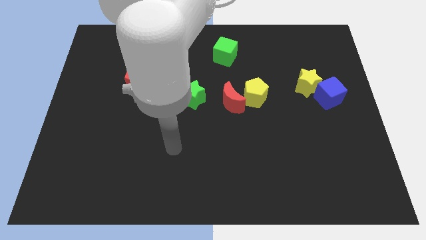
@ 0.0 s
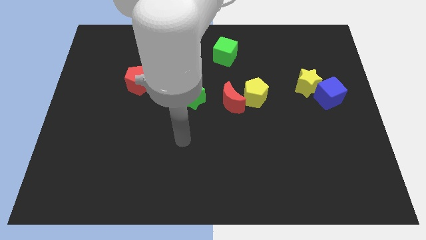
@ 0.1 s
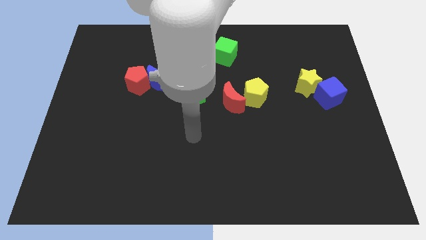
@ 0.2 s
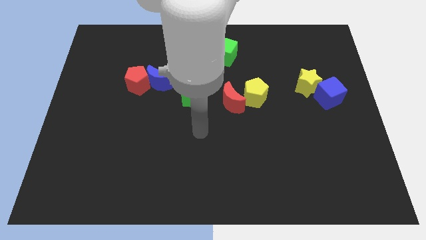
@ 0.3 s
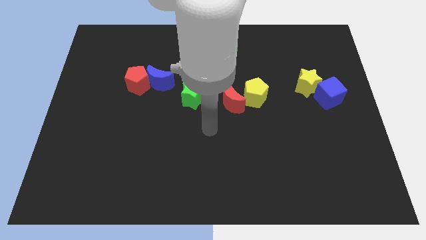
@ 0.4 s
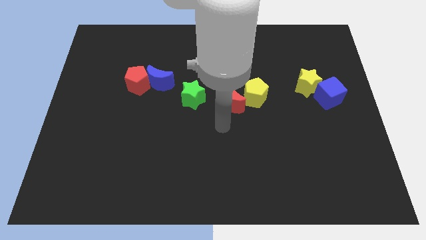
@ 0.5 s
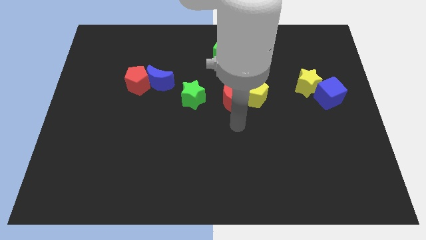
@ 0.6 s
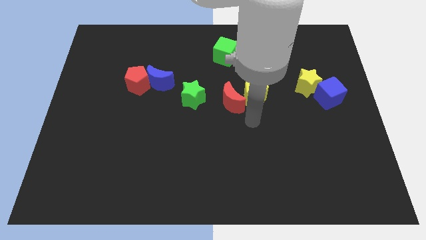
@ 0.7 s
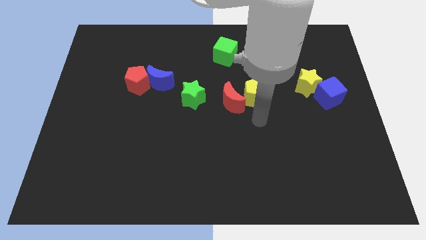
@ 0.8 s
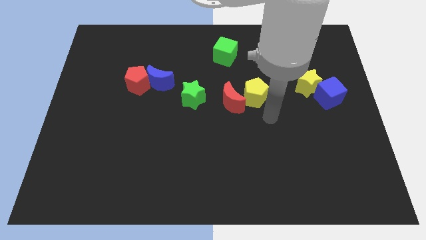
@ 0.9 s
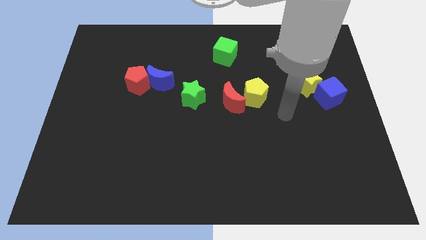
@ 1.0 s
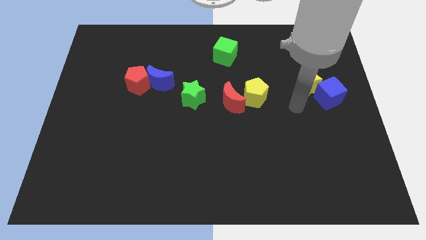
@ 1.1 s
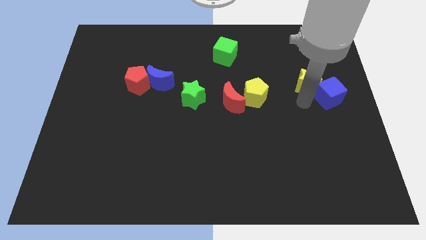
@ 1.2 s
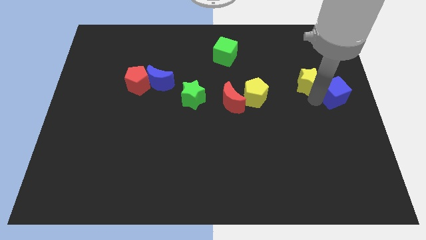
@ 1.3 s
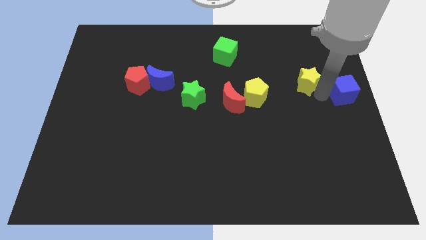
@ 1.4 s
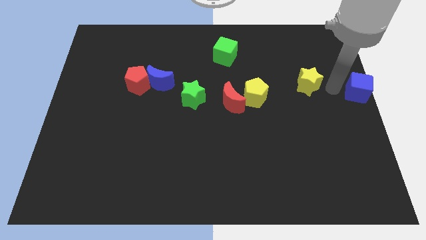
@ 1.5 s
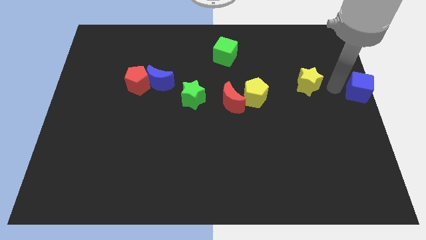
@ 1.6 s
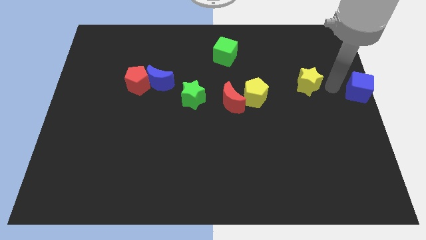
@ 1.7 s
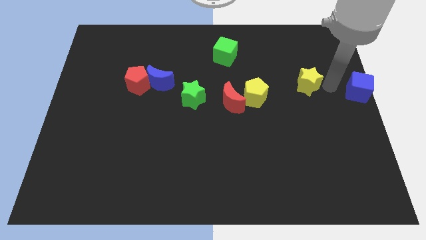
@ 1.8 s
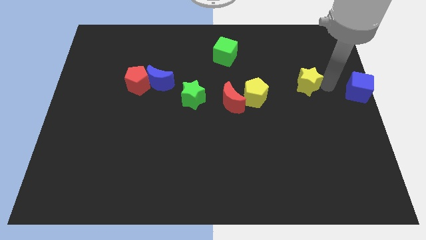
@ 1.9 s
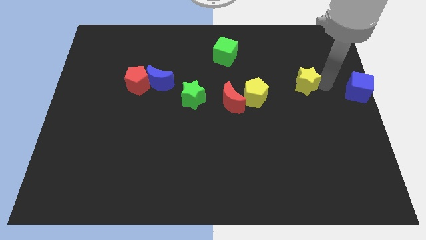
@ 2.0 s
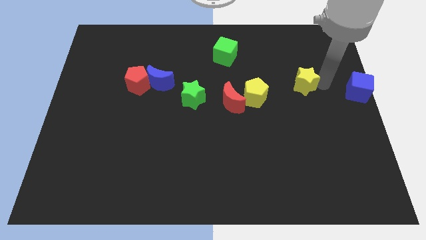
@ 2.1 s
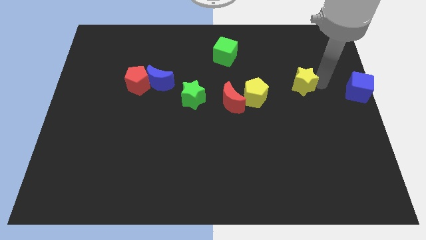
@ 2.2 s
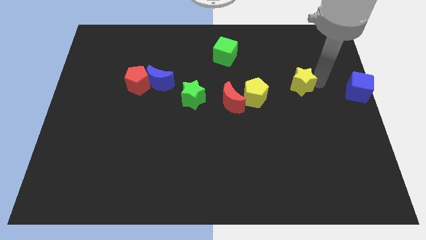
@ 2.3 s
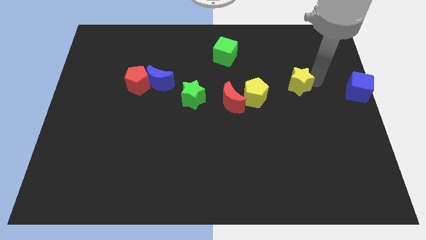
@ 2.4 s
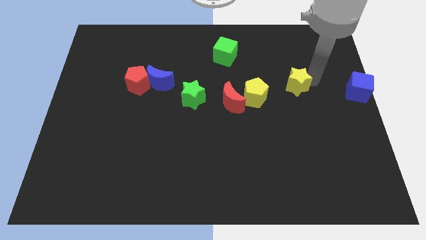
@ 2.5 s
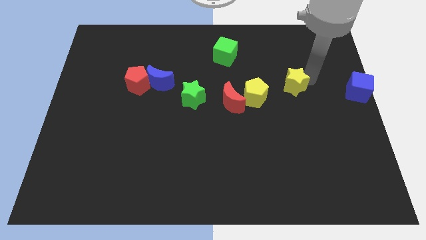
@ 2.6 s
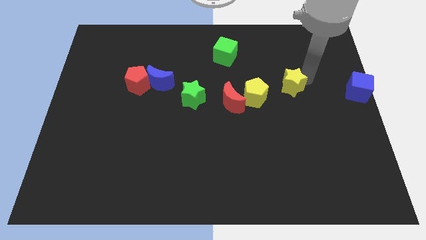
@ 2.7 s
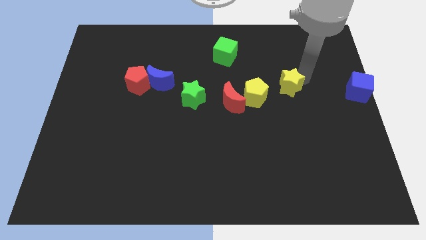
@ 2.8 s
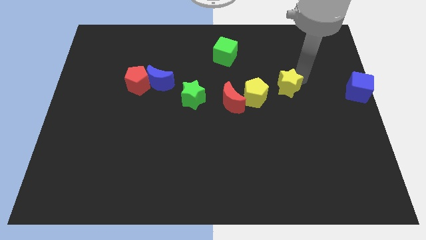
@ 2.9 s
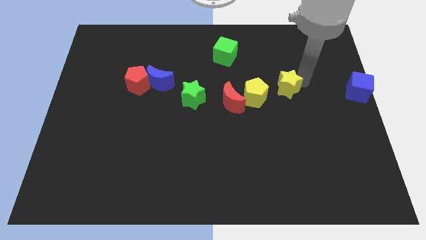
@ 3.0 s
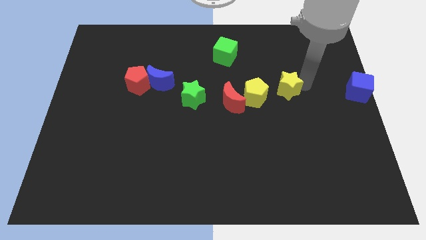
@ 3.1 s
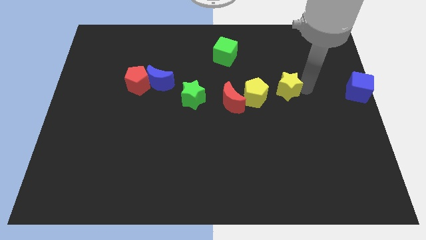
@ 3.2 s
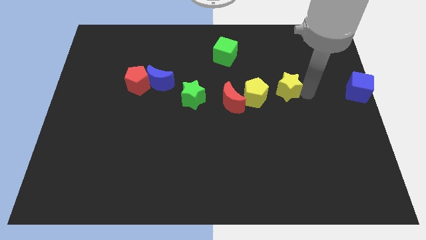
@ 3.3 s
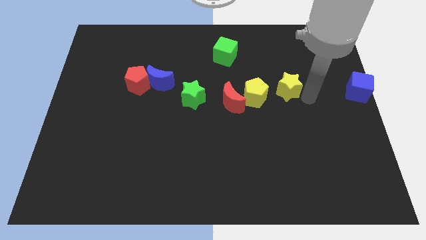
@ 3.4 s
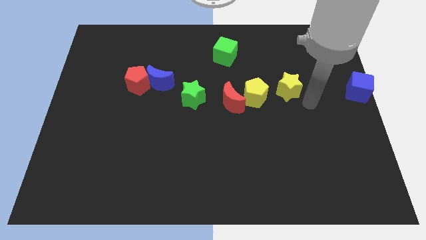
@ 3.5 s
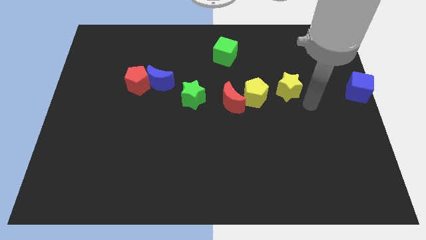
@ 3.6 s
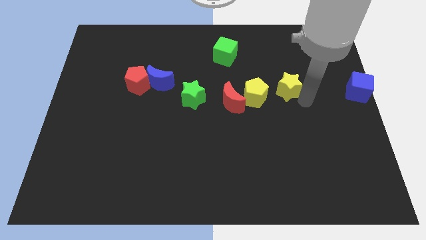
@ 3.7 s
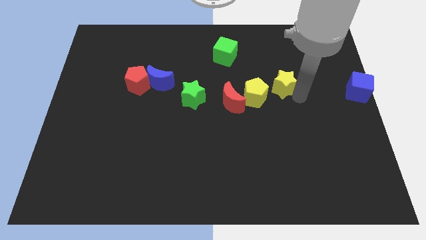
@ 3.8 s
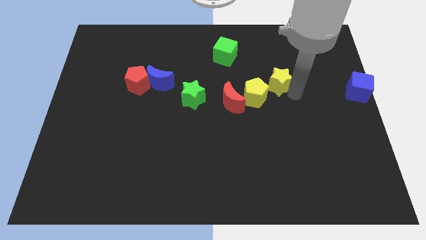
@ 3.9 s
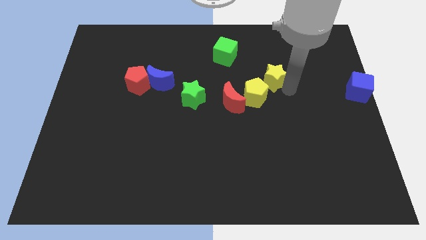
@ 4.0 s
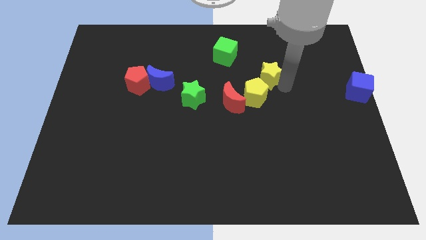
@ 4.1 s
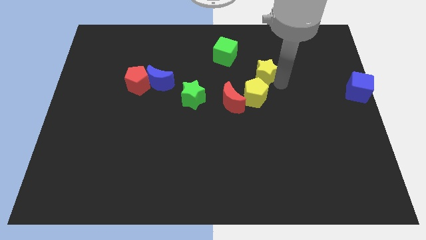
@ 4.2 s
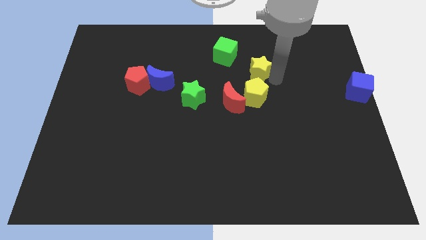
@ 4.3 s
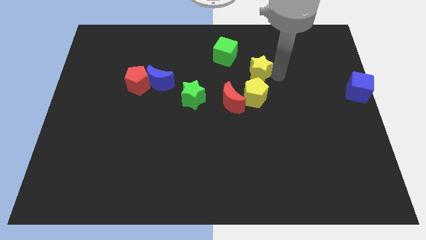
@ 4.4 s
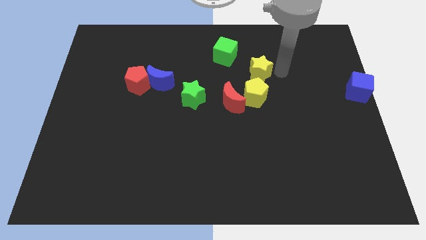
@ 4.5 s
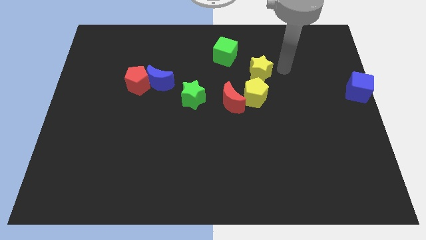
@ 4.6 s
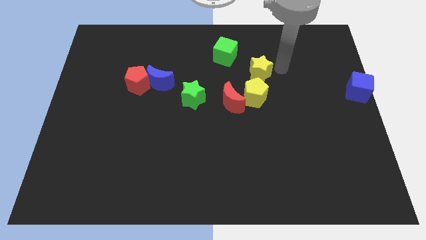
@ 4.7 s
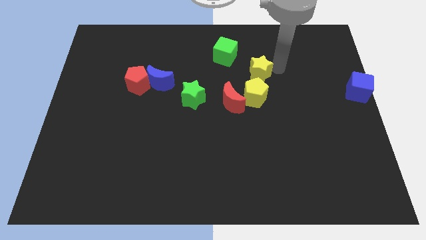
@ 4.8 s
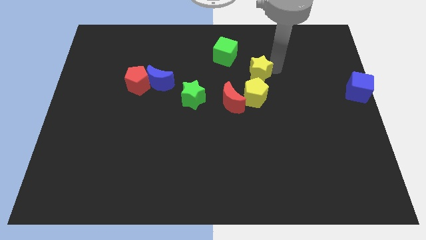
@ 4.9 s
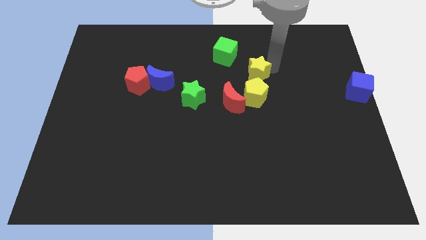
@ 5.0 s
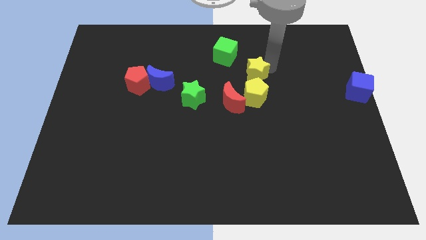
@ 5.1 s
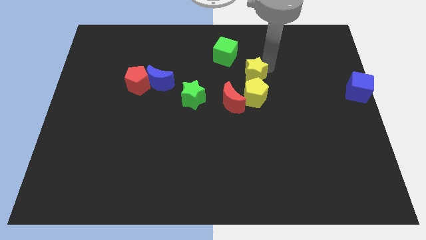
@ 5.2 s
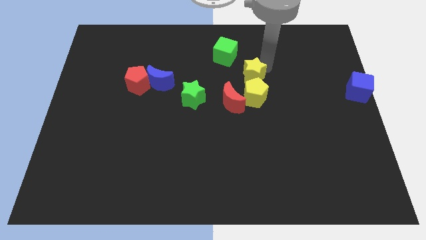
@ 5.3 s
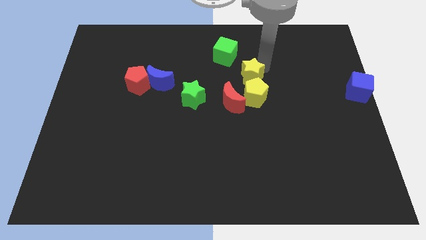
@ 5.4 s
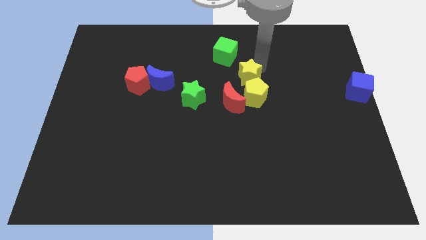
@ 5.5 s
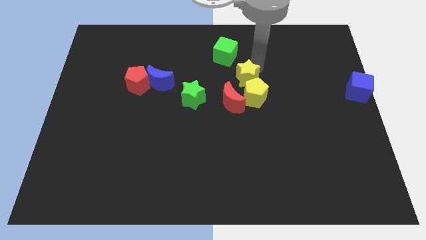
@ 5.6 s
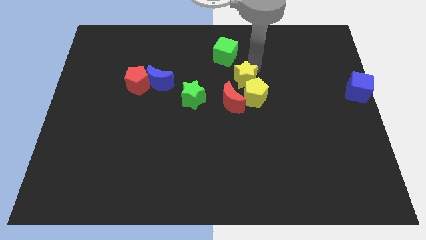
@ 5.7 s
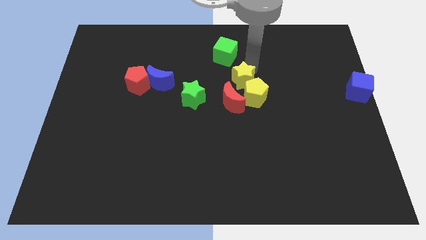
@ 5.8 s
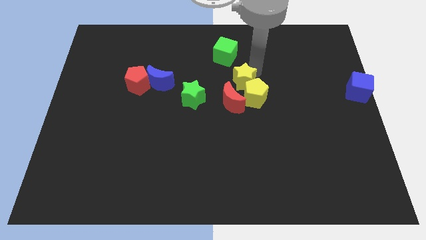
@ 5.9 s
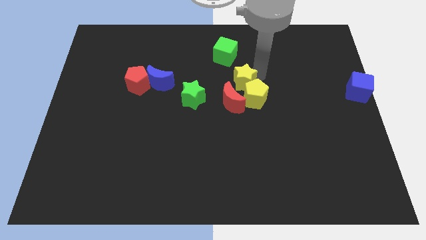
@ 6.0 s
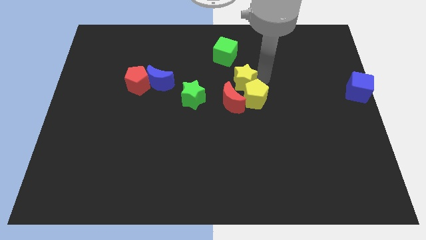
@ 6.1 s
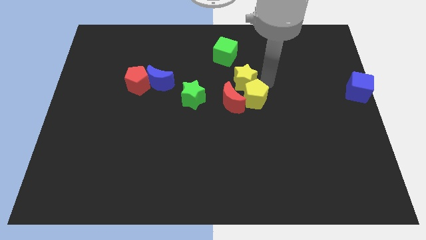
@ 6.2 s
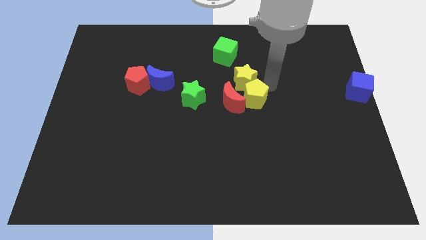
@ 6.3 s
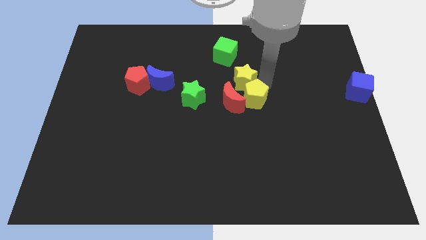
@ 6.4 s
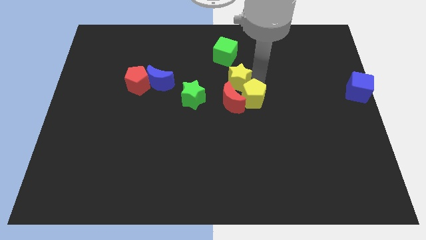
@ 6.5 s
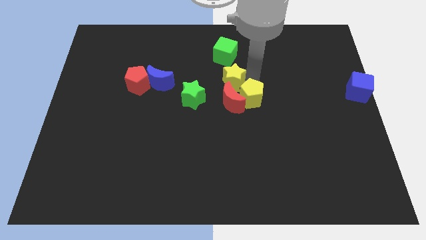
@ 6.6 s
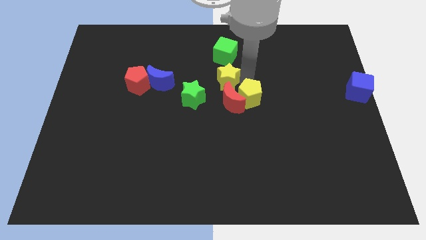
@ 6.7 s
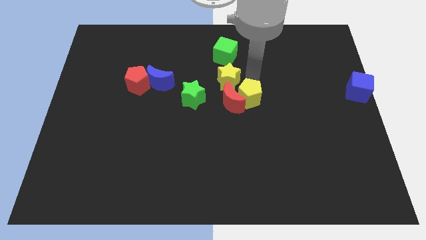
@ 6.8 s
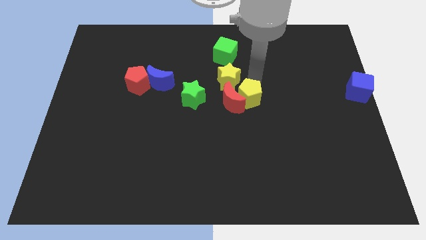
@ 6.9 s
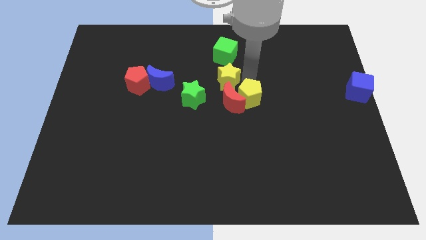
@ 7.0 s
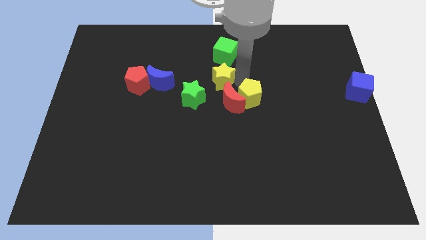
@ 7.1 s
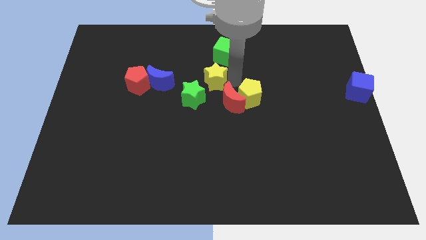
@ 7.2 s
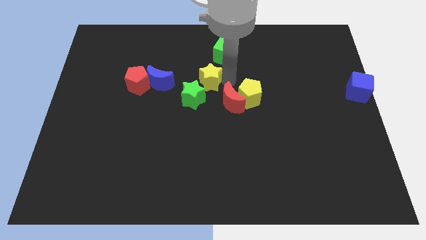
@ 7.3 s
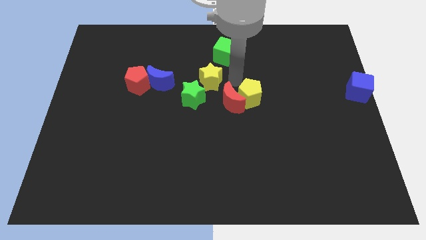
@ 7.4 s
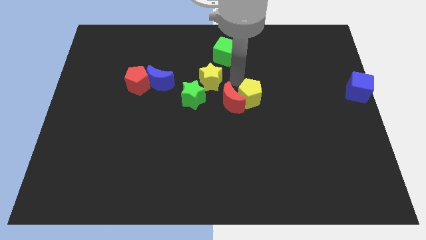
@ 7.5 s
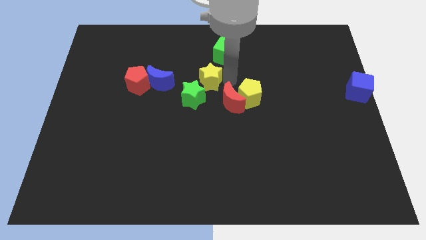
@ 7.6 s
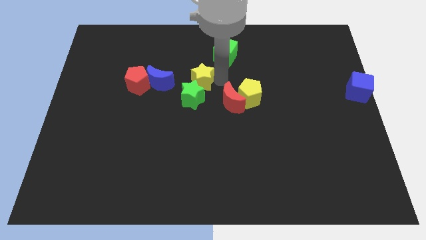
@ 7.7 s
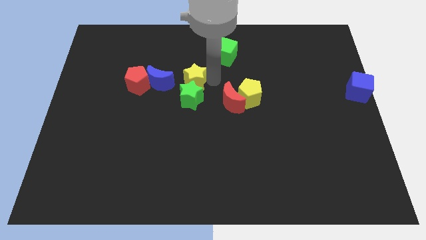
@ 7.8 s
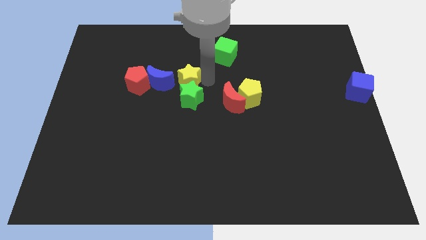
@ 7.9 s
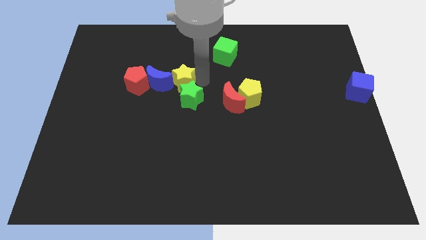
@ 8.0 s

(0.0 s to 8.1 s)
push the yellow star to the blue moon
